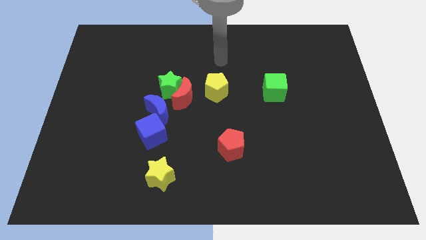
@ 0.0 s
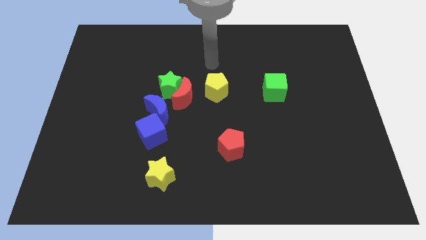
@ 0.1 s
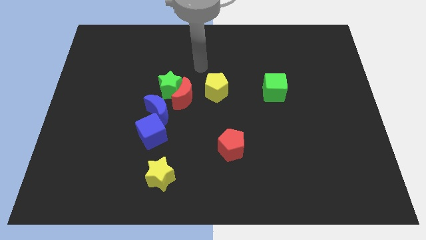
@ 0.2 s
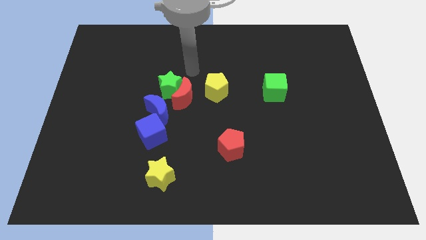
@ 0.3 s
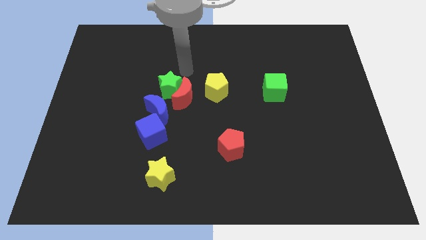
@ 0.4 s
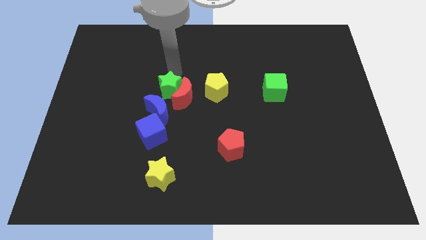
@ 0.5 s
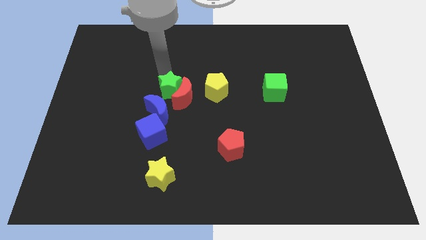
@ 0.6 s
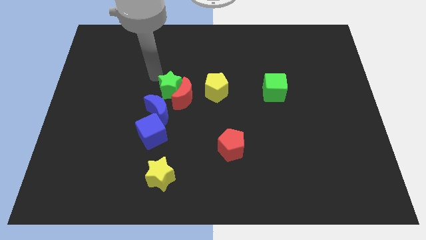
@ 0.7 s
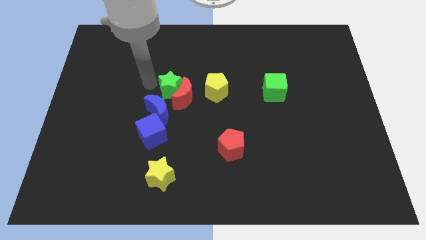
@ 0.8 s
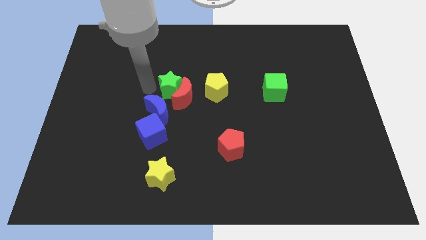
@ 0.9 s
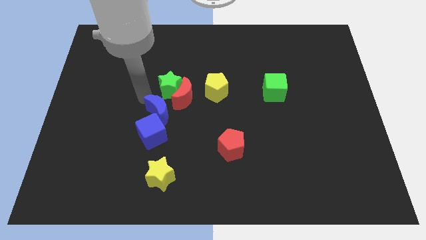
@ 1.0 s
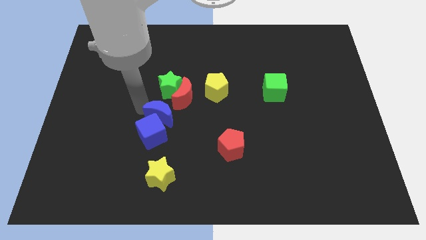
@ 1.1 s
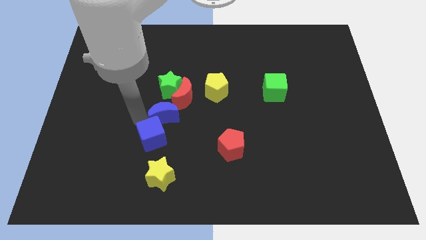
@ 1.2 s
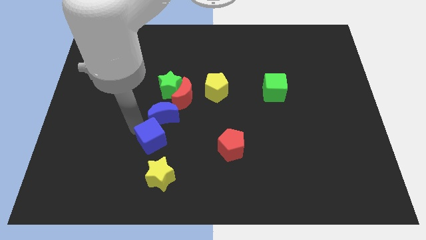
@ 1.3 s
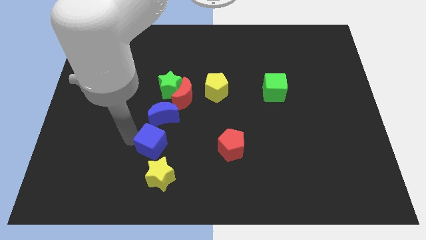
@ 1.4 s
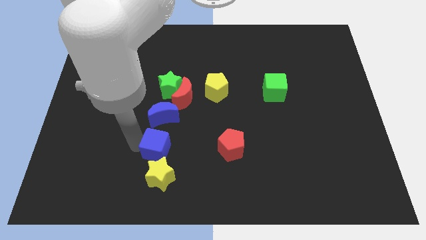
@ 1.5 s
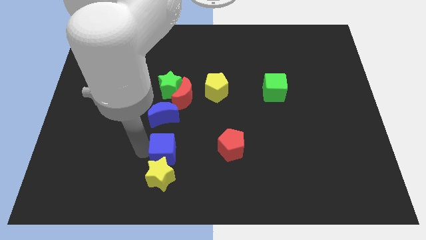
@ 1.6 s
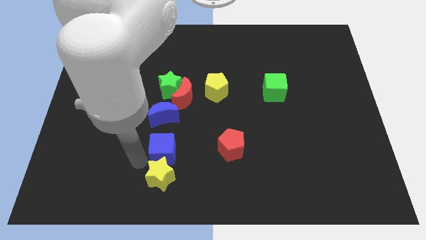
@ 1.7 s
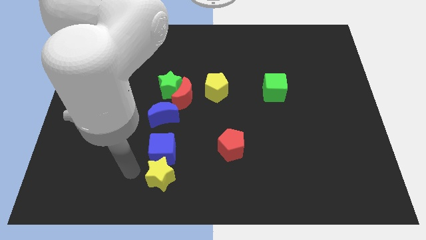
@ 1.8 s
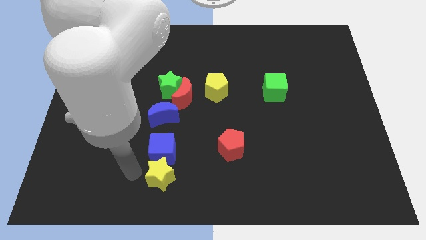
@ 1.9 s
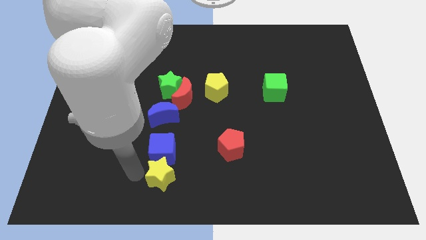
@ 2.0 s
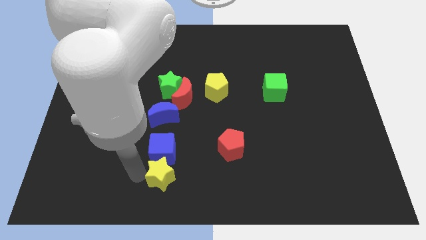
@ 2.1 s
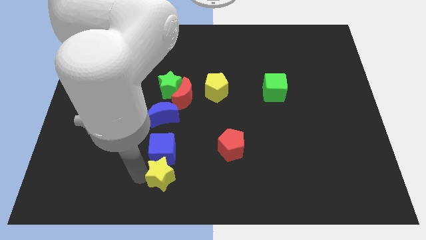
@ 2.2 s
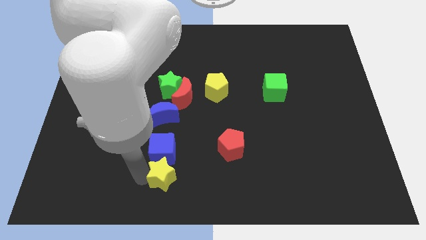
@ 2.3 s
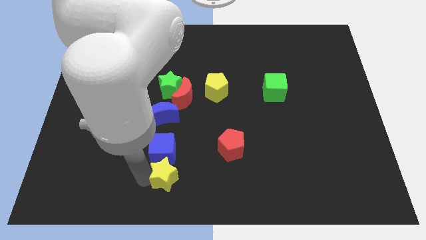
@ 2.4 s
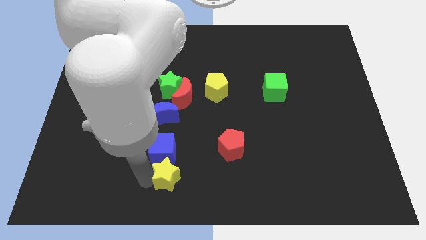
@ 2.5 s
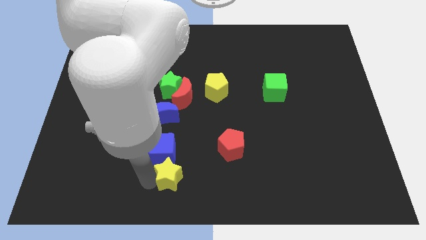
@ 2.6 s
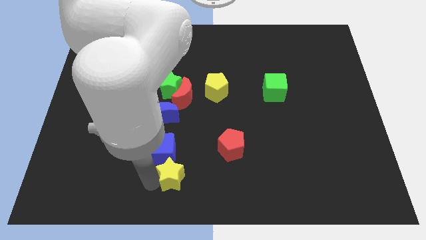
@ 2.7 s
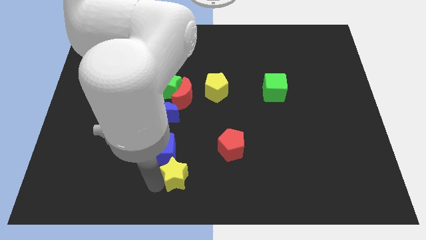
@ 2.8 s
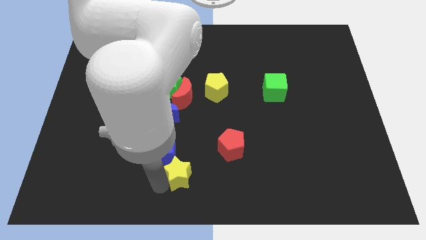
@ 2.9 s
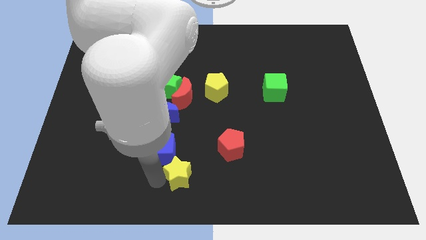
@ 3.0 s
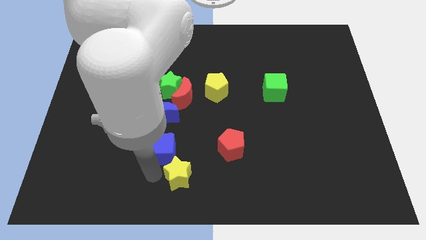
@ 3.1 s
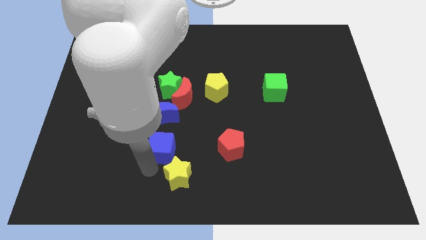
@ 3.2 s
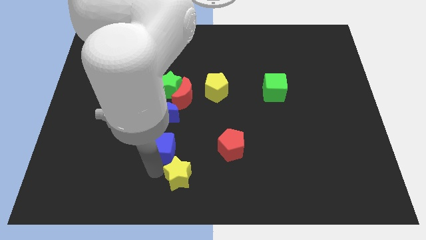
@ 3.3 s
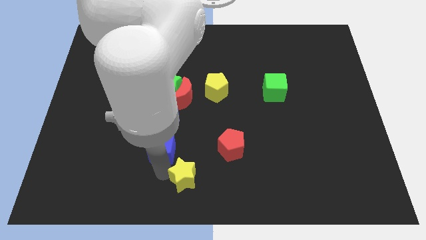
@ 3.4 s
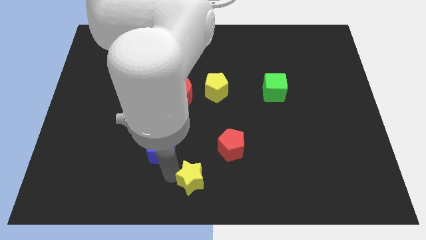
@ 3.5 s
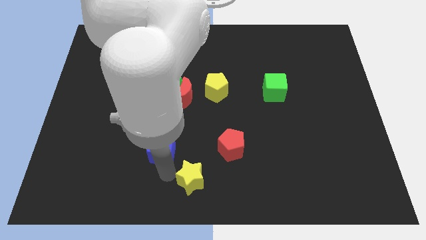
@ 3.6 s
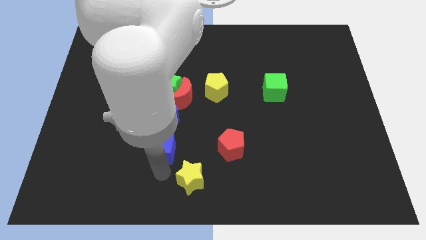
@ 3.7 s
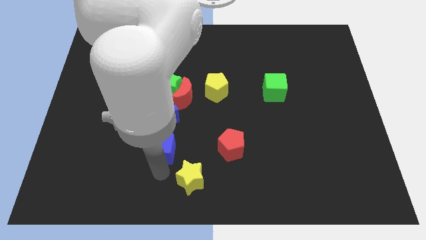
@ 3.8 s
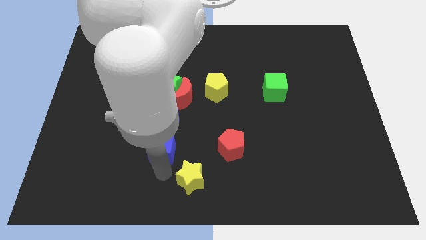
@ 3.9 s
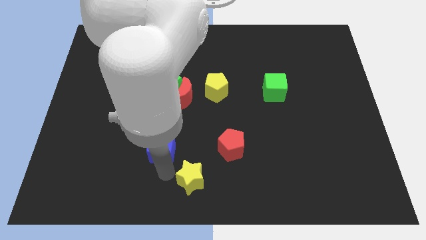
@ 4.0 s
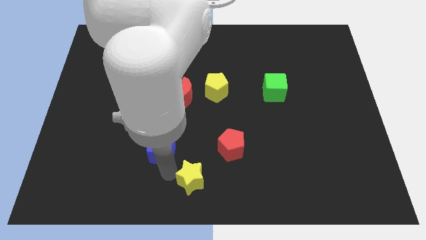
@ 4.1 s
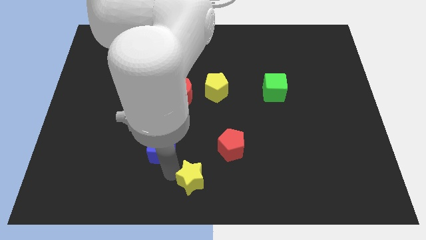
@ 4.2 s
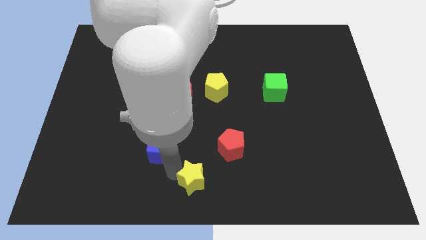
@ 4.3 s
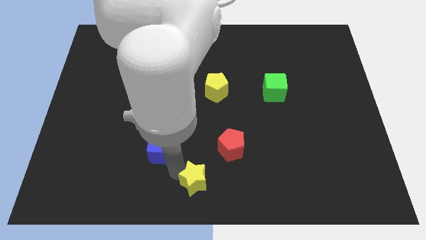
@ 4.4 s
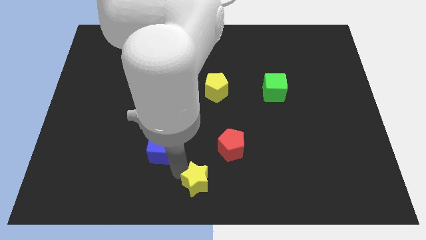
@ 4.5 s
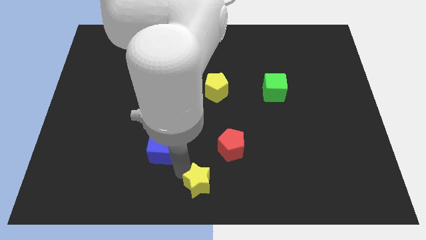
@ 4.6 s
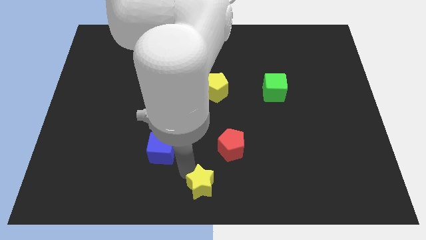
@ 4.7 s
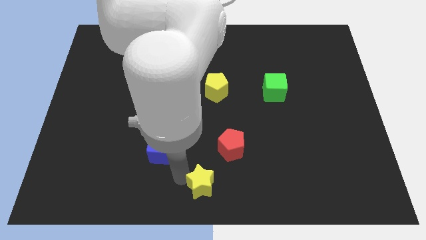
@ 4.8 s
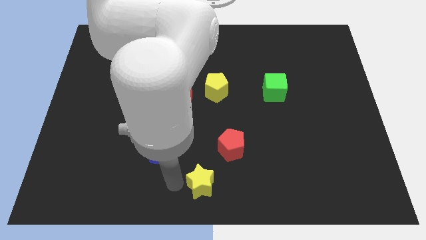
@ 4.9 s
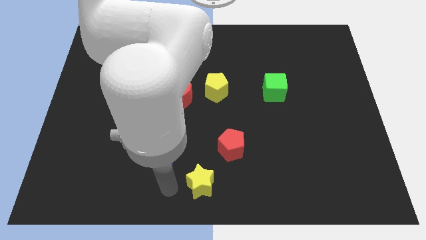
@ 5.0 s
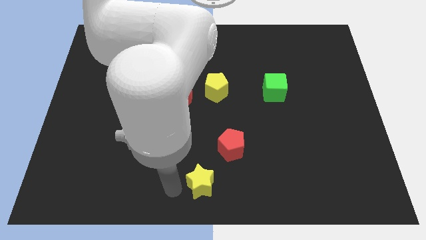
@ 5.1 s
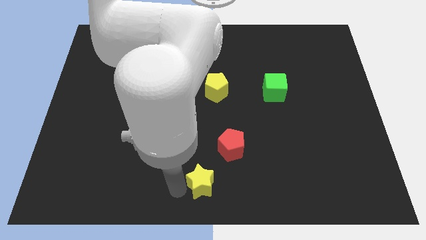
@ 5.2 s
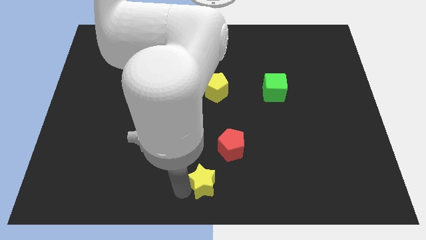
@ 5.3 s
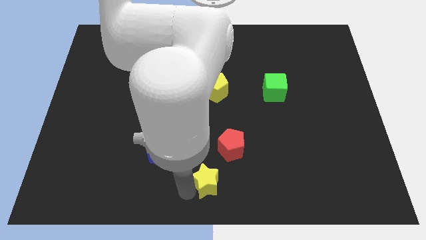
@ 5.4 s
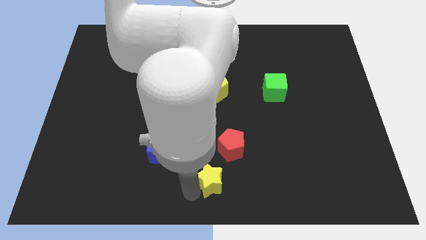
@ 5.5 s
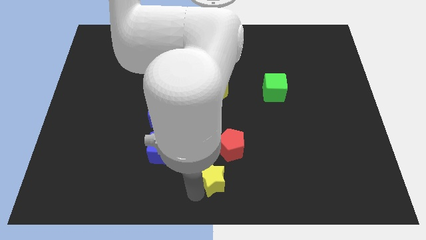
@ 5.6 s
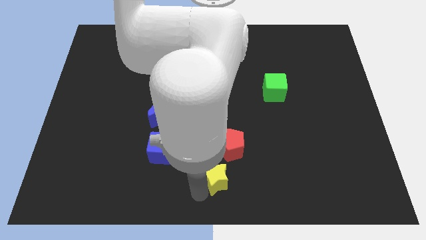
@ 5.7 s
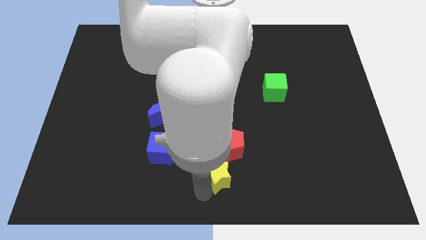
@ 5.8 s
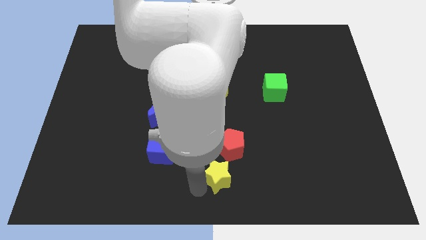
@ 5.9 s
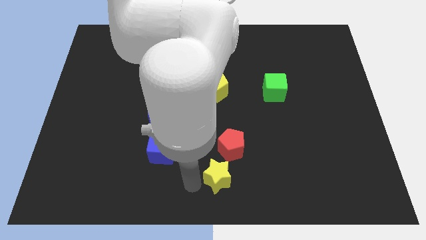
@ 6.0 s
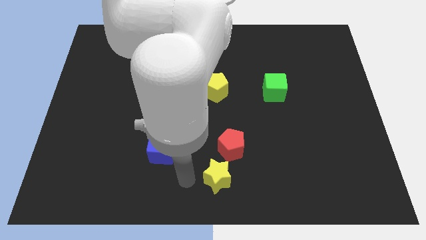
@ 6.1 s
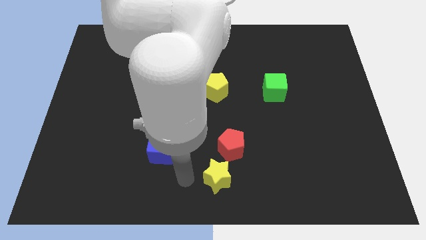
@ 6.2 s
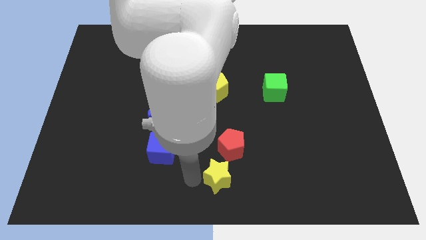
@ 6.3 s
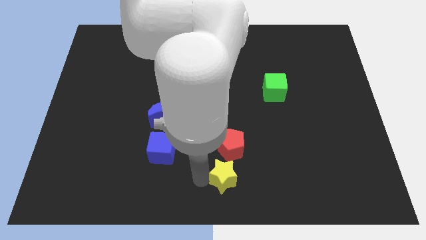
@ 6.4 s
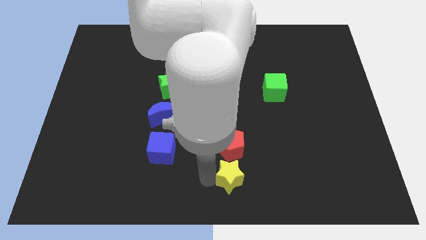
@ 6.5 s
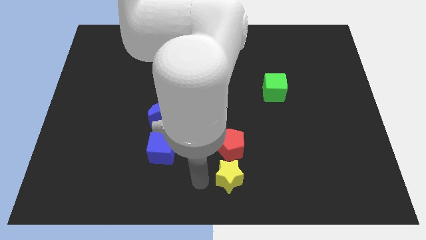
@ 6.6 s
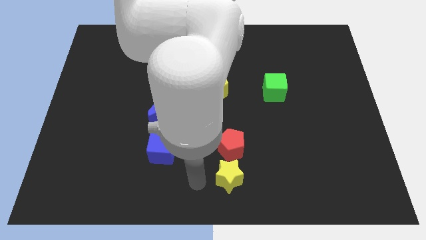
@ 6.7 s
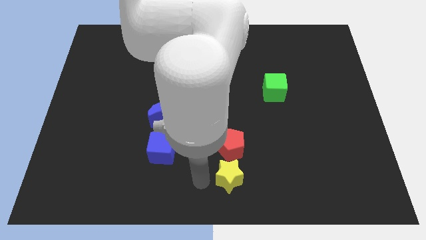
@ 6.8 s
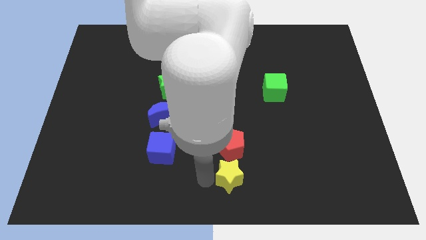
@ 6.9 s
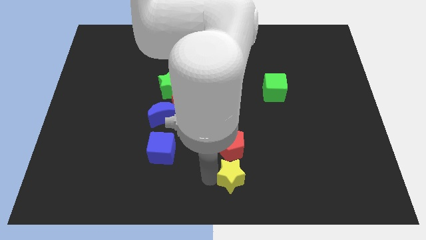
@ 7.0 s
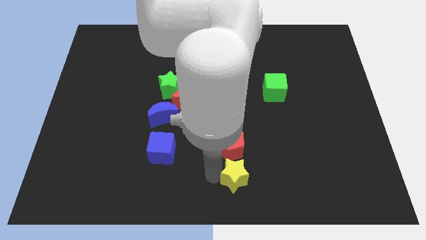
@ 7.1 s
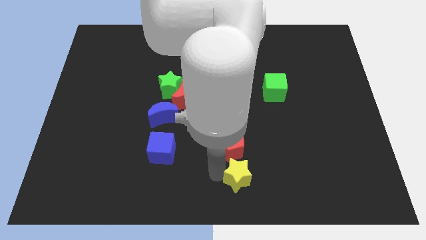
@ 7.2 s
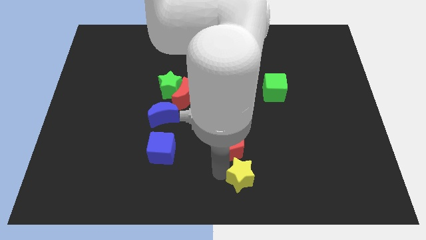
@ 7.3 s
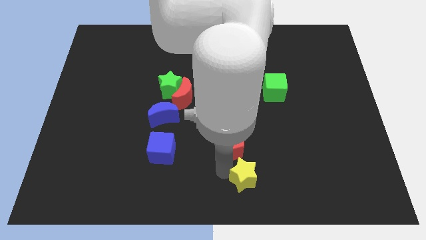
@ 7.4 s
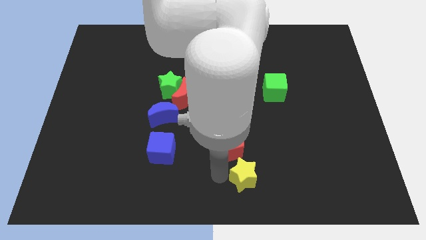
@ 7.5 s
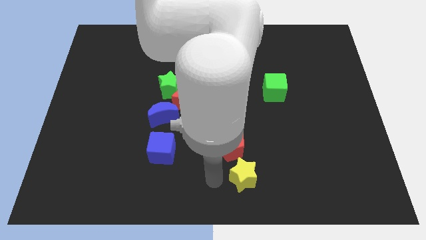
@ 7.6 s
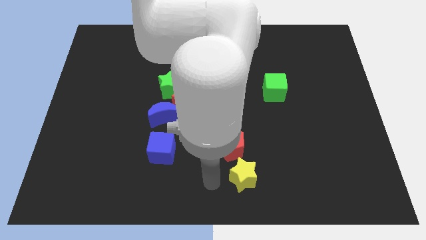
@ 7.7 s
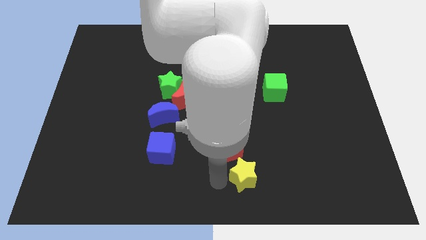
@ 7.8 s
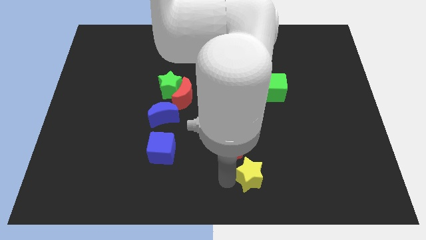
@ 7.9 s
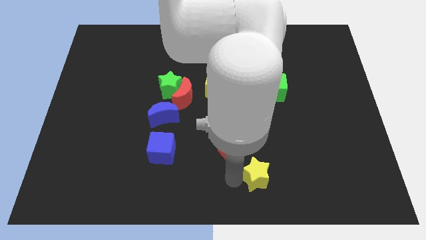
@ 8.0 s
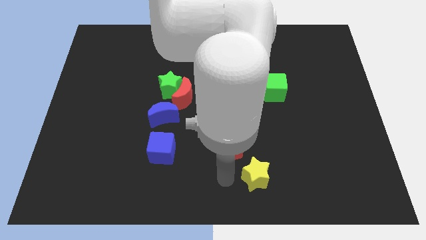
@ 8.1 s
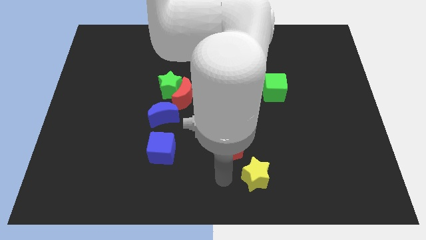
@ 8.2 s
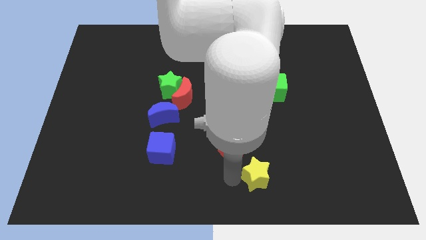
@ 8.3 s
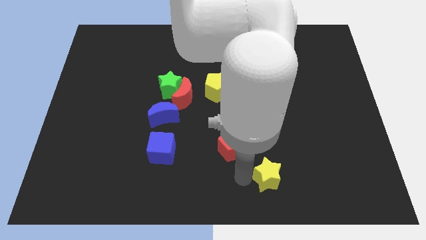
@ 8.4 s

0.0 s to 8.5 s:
move the yellow star to the right

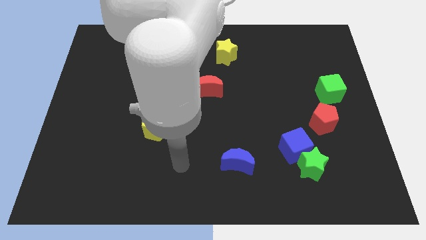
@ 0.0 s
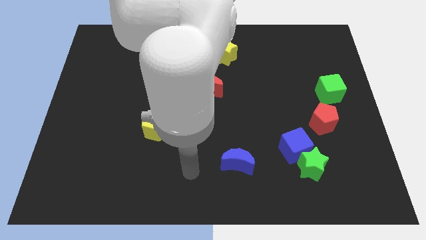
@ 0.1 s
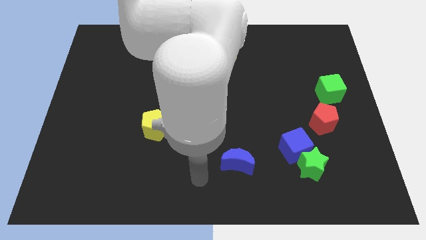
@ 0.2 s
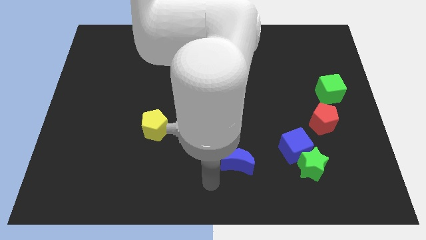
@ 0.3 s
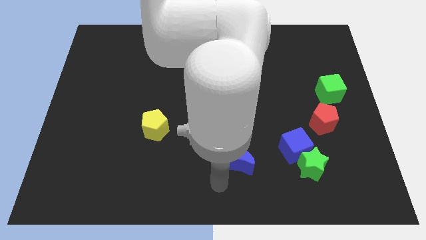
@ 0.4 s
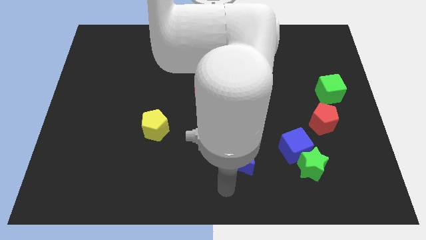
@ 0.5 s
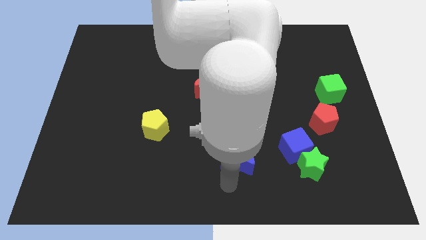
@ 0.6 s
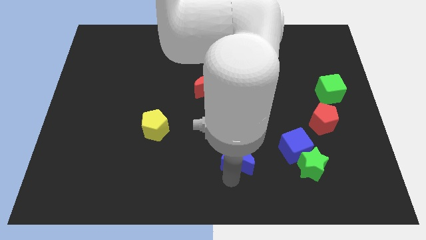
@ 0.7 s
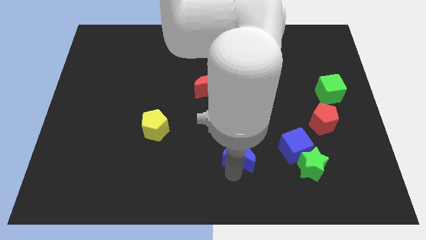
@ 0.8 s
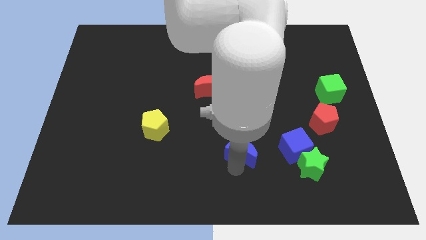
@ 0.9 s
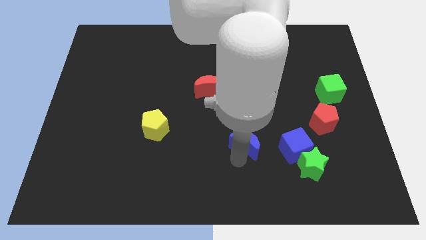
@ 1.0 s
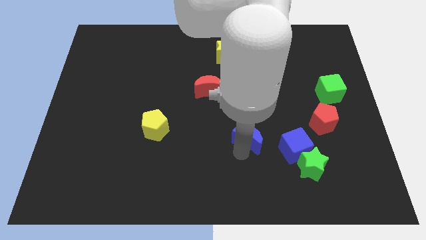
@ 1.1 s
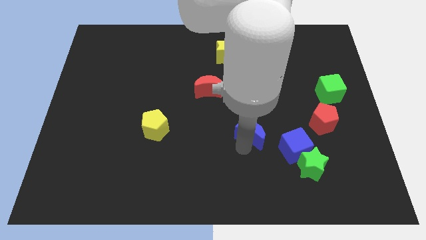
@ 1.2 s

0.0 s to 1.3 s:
move the blue moon up and to the right a little
